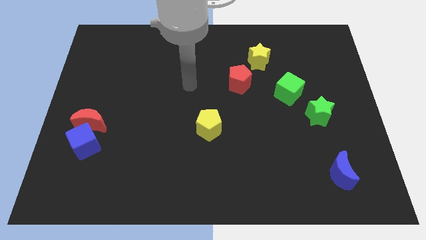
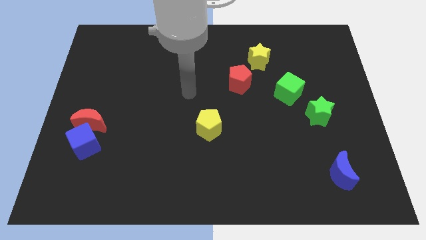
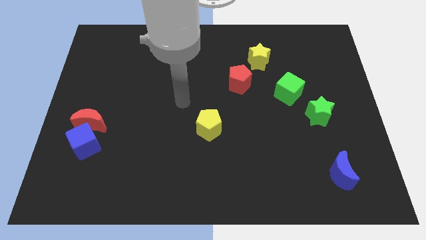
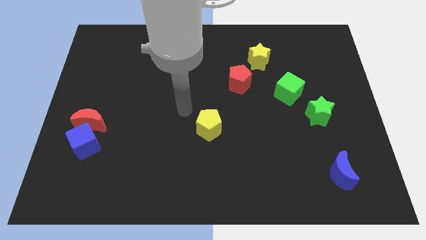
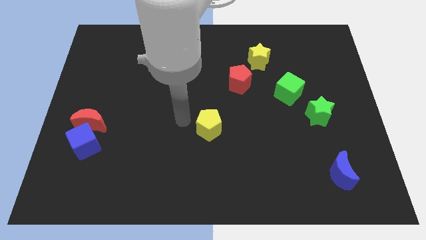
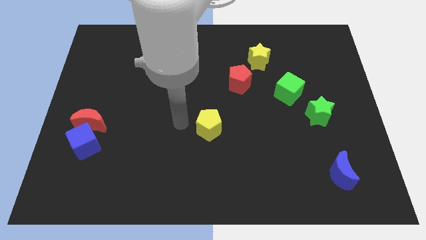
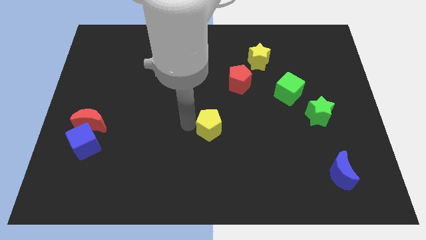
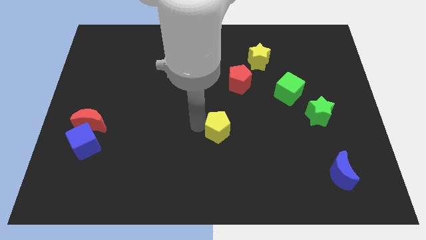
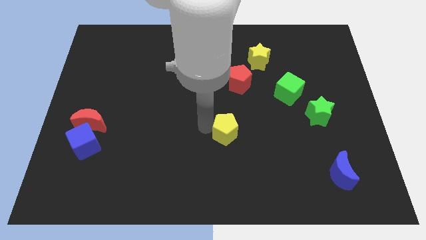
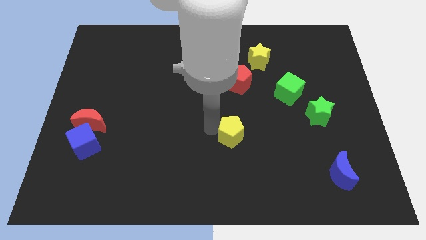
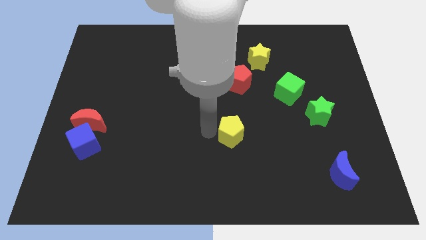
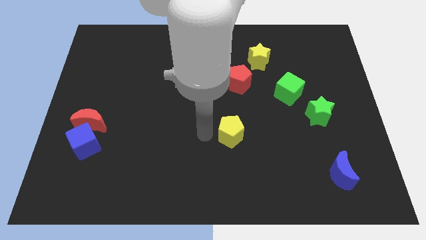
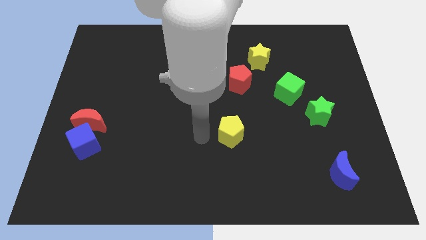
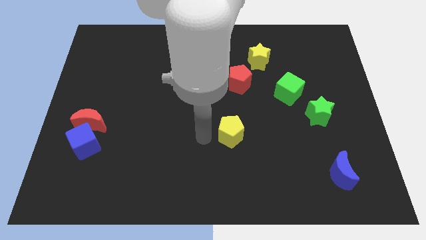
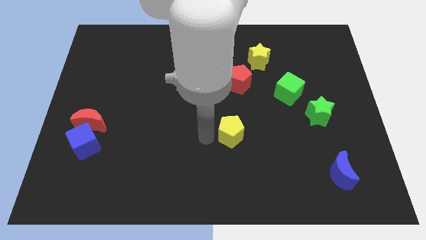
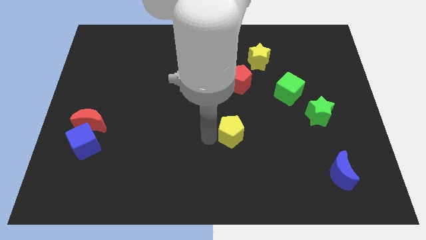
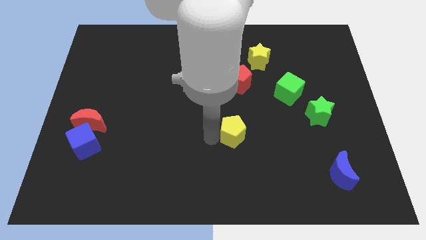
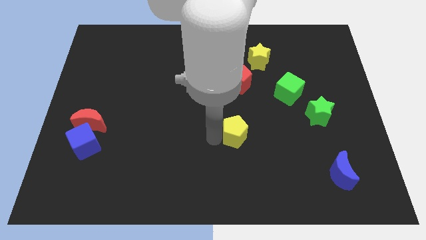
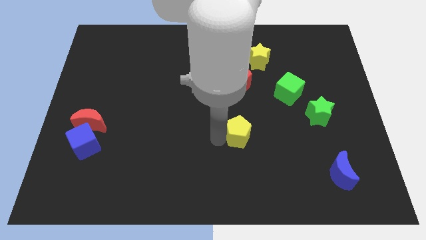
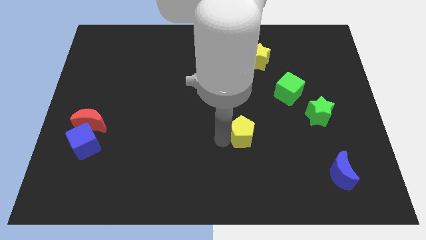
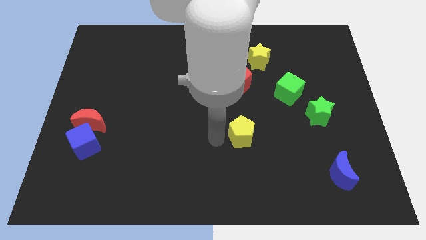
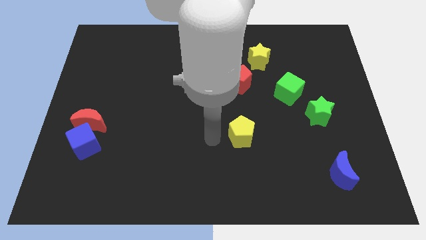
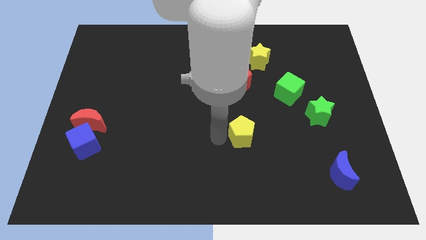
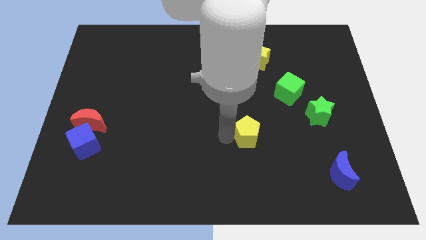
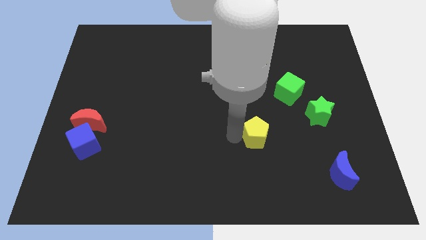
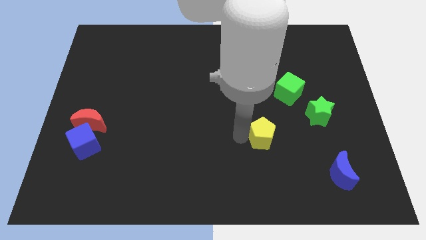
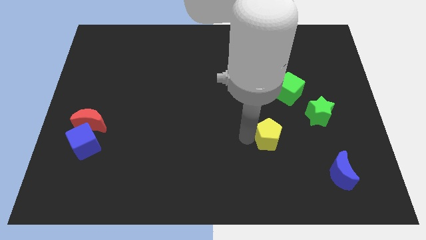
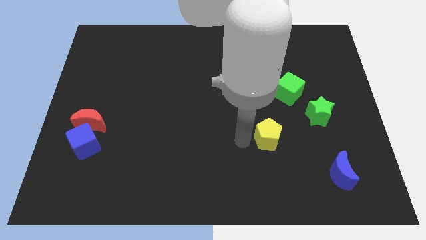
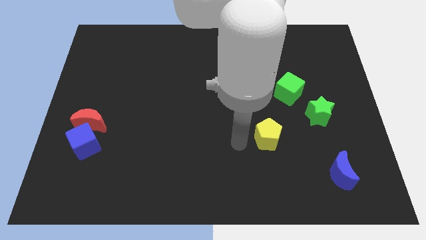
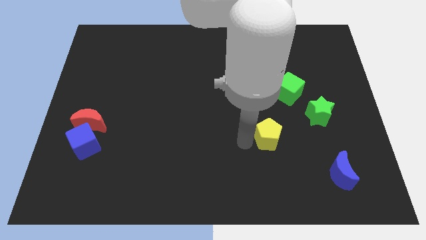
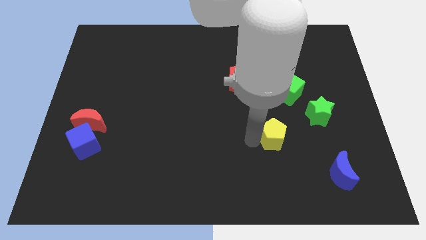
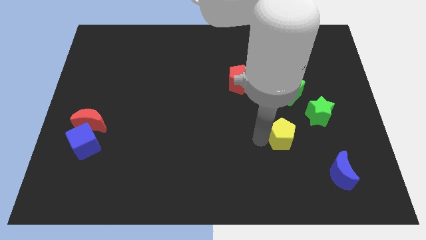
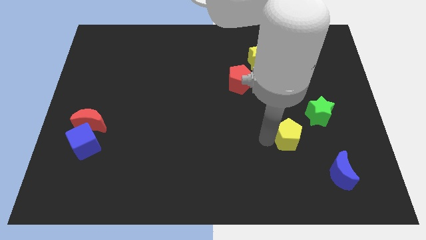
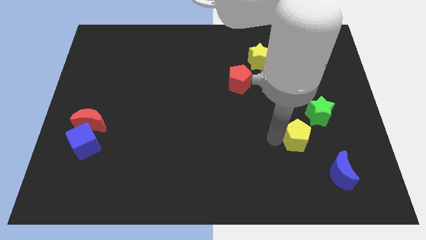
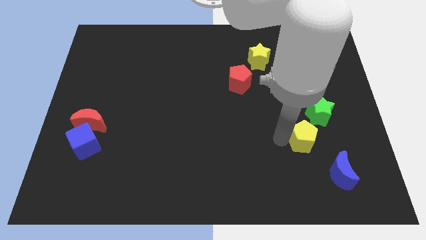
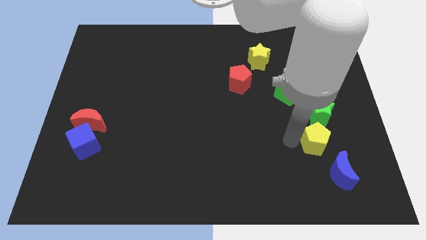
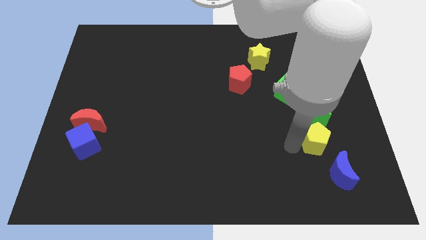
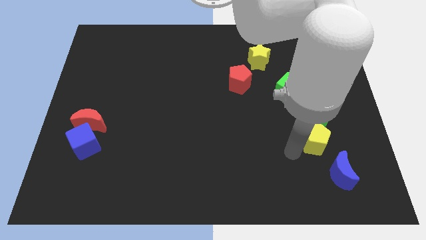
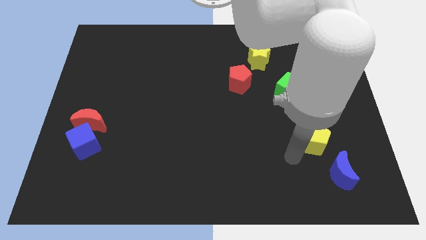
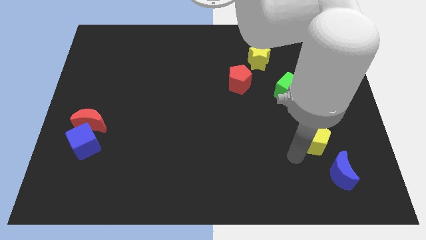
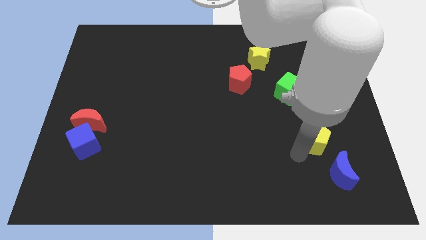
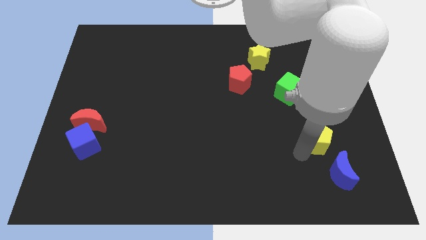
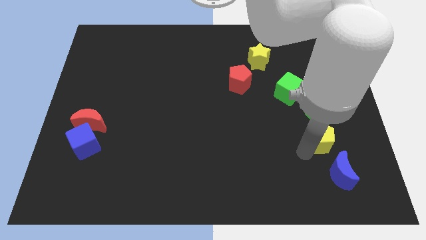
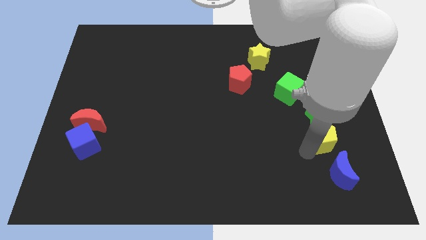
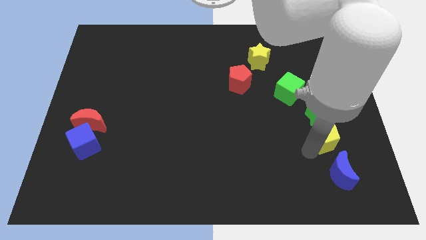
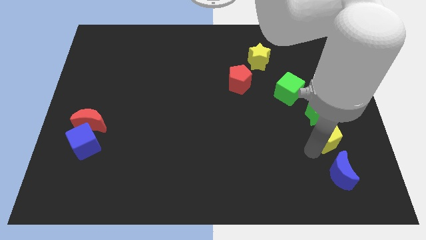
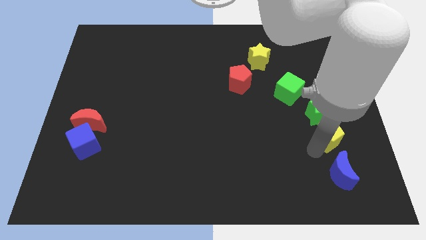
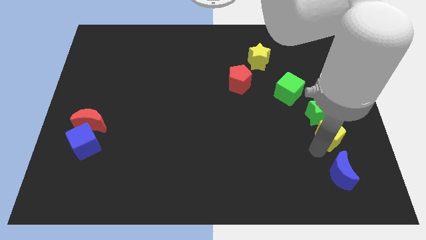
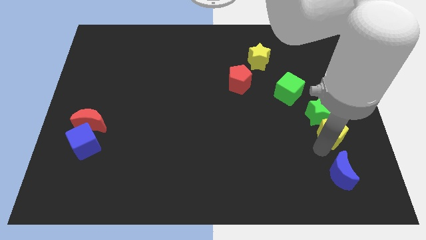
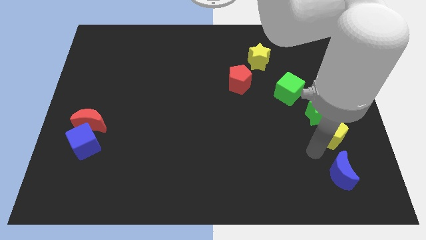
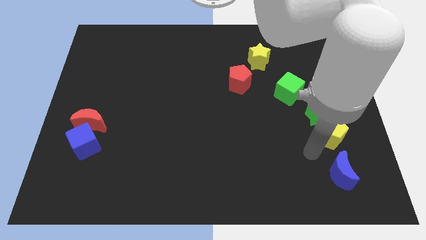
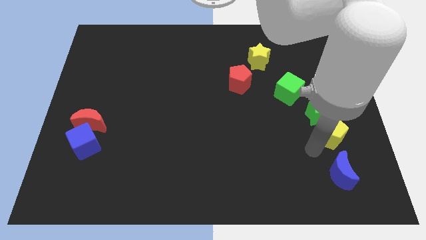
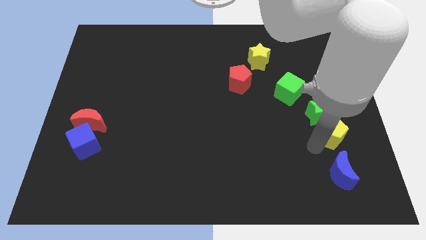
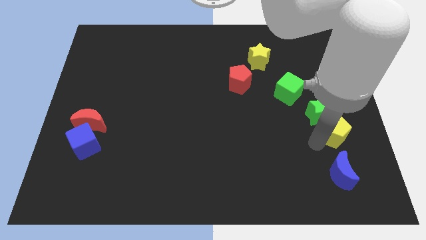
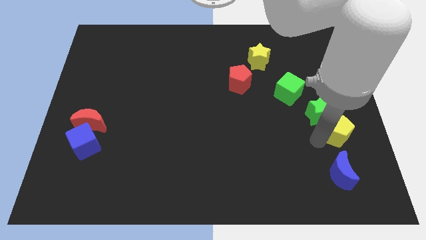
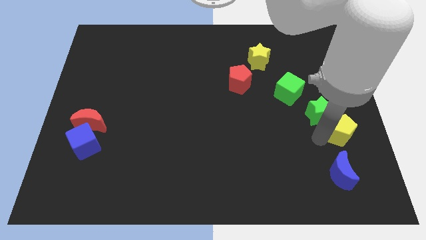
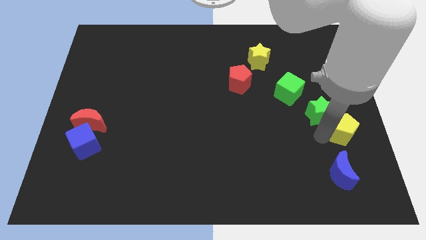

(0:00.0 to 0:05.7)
put the yellow pentagon to the center right
